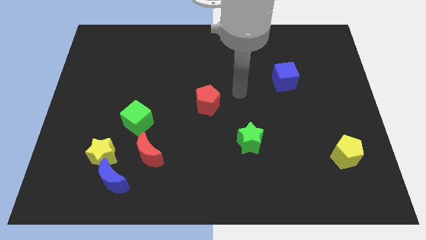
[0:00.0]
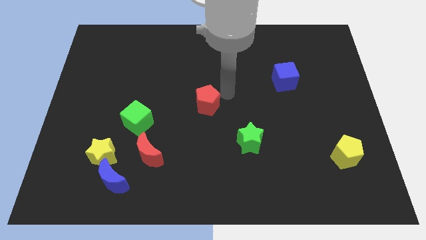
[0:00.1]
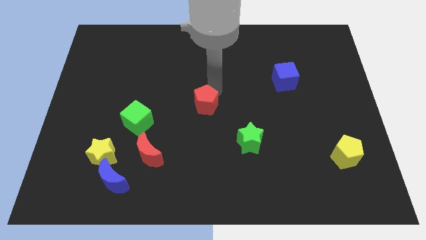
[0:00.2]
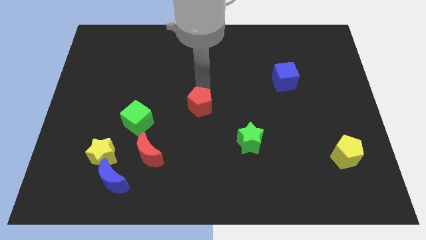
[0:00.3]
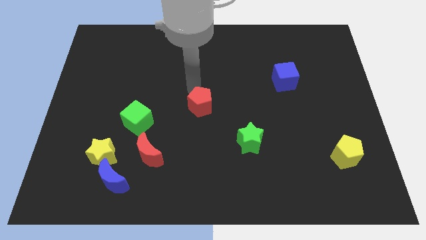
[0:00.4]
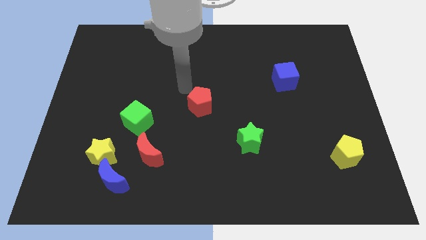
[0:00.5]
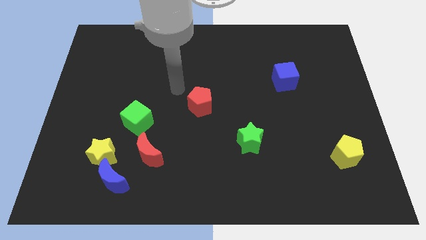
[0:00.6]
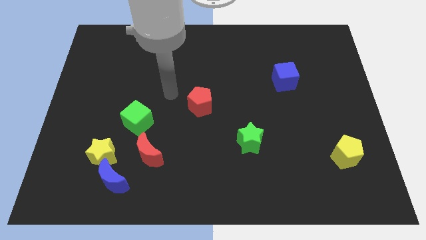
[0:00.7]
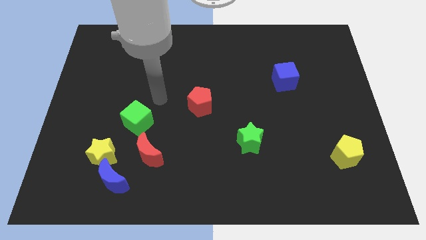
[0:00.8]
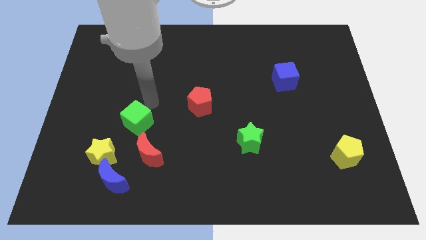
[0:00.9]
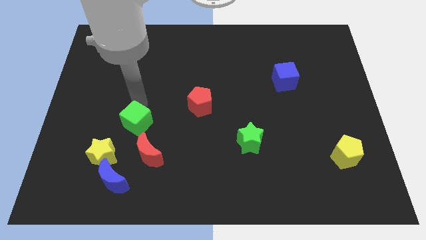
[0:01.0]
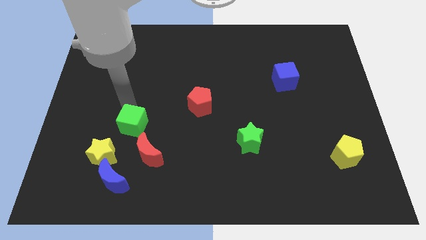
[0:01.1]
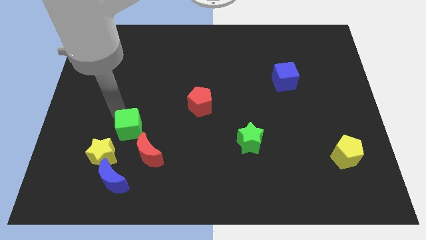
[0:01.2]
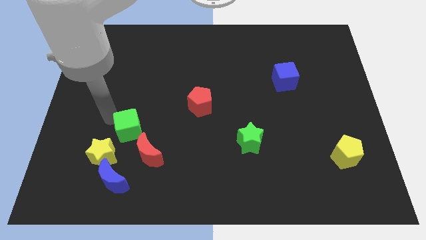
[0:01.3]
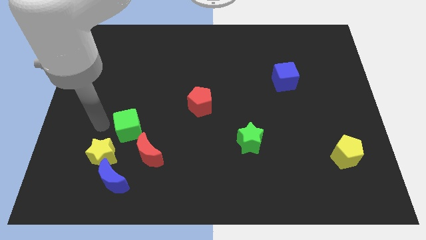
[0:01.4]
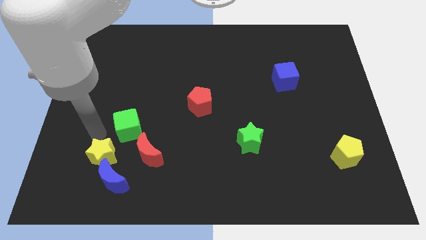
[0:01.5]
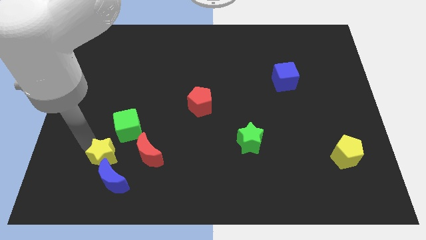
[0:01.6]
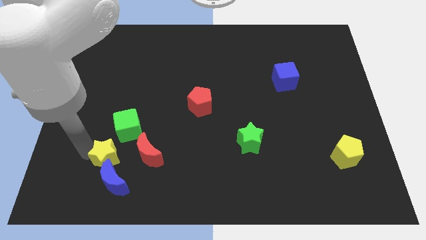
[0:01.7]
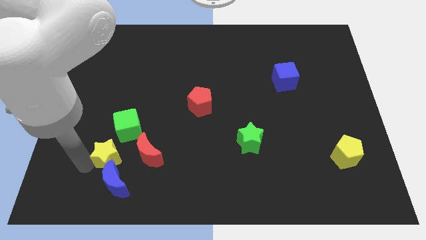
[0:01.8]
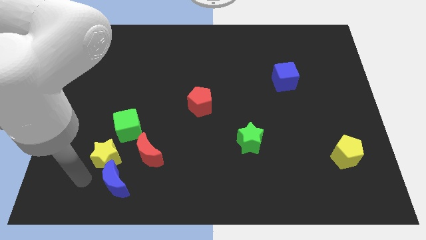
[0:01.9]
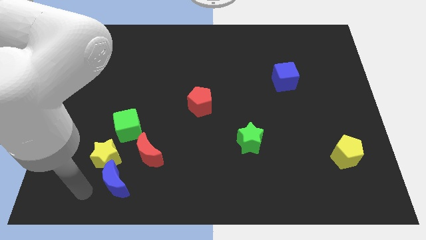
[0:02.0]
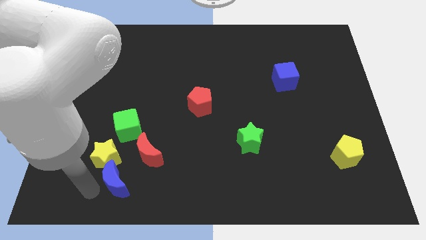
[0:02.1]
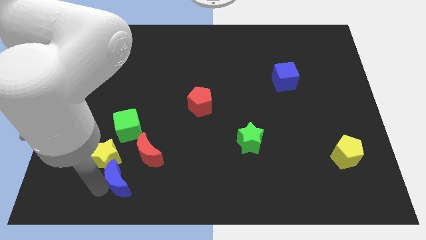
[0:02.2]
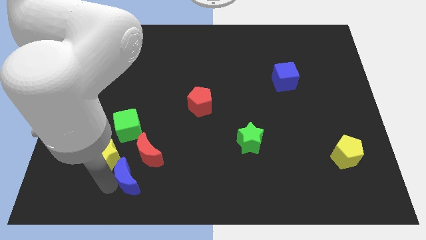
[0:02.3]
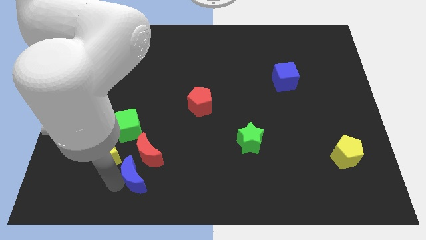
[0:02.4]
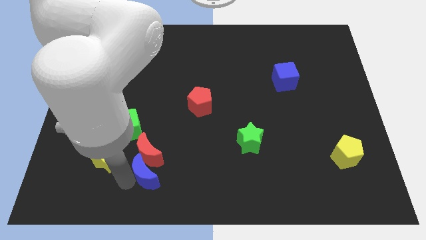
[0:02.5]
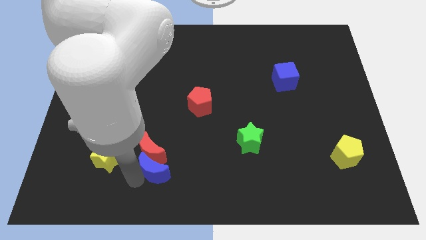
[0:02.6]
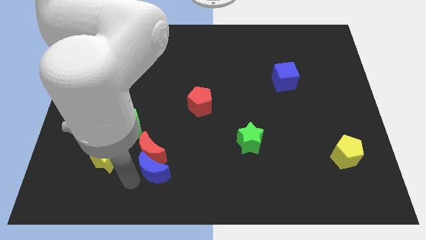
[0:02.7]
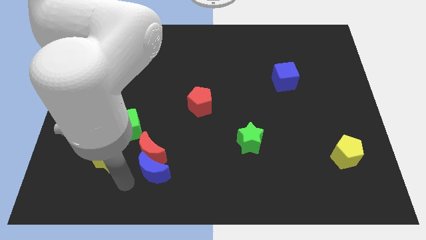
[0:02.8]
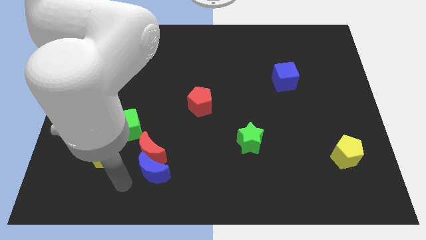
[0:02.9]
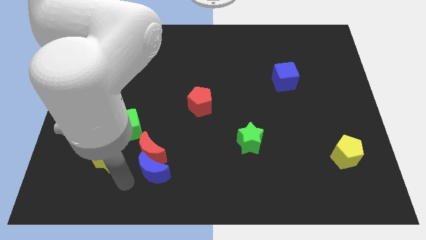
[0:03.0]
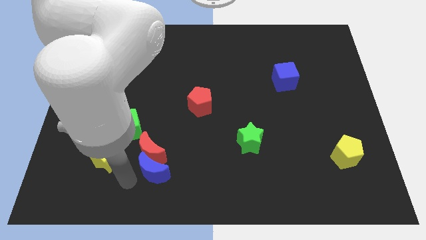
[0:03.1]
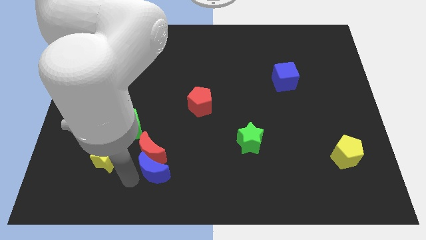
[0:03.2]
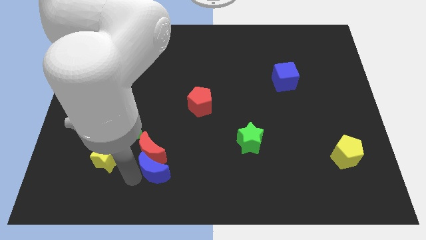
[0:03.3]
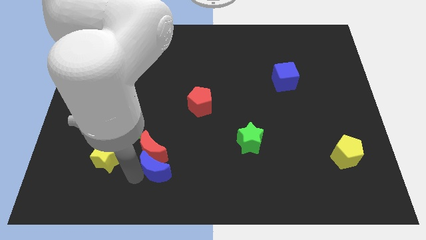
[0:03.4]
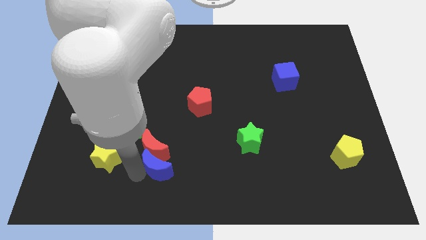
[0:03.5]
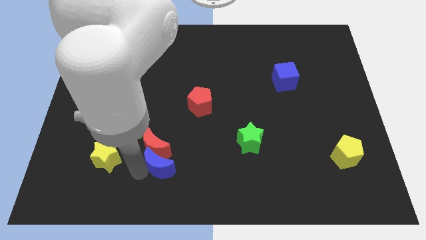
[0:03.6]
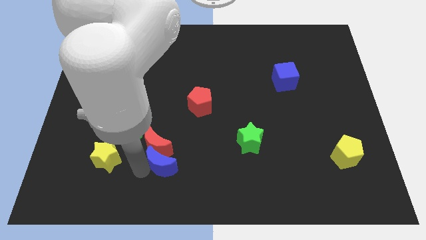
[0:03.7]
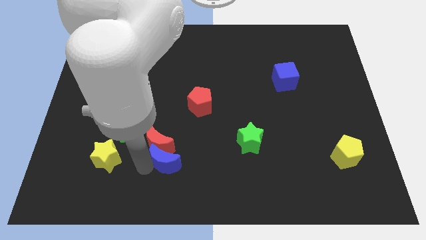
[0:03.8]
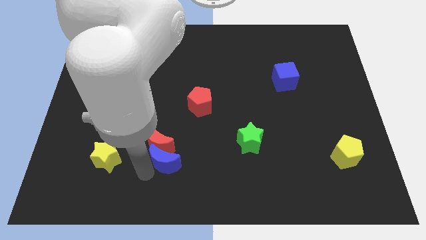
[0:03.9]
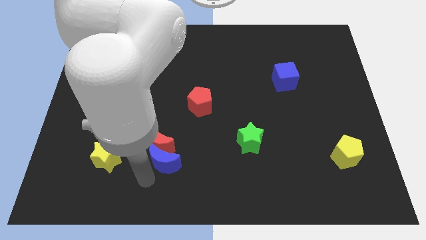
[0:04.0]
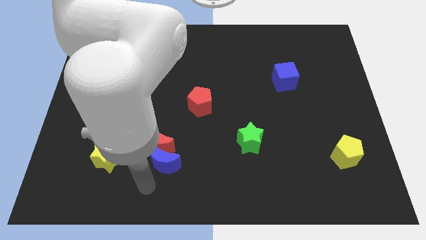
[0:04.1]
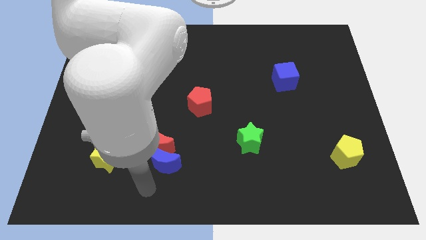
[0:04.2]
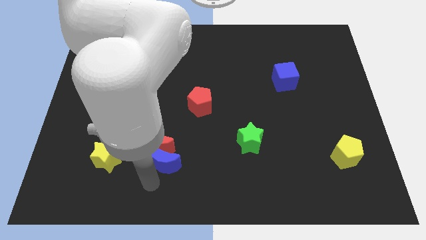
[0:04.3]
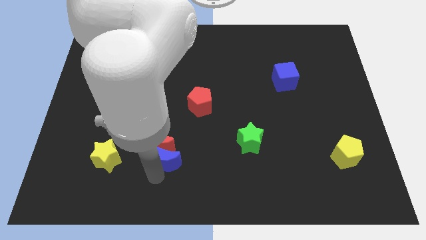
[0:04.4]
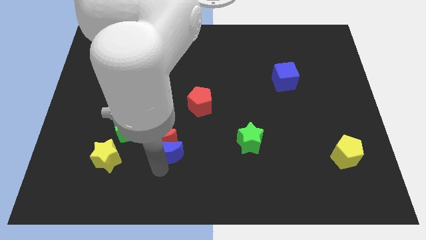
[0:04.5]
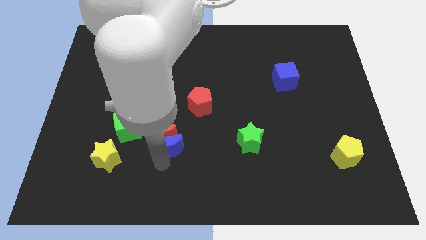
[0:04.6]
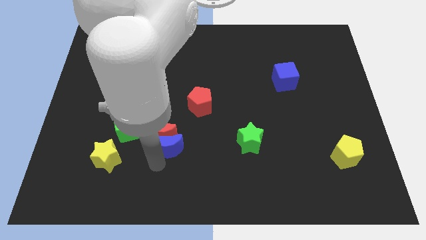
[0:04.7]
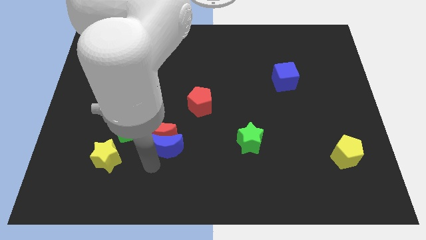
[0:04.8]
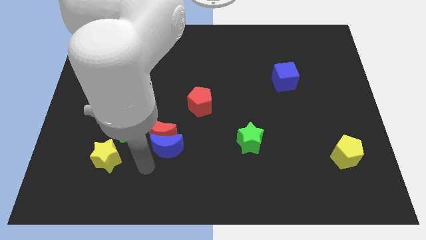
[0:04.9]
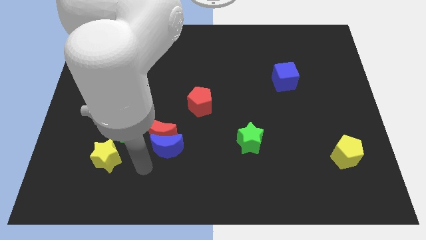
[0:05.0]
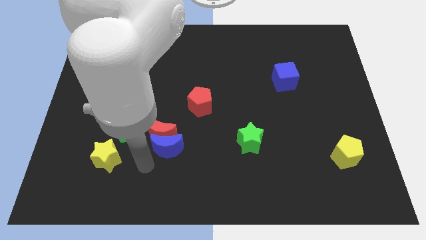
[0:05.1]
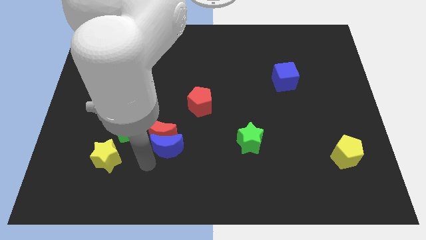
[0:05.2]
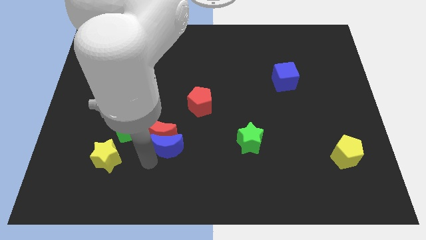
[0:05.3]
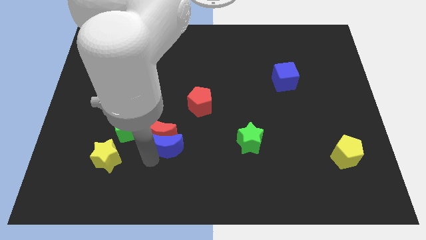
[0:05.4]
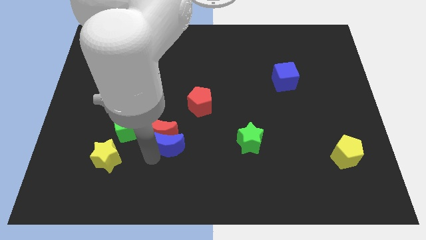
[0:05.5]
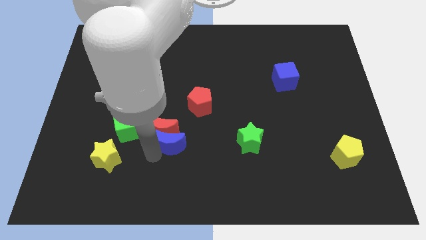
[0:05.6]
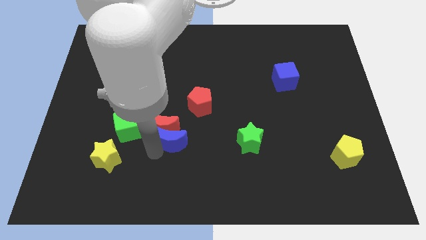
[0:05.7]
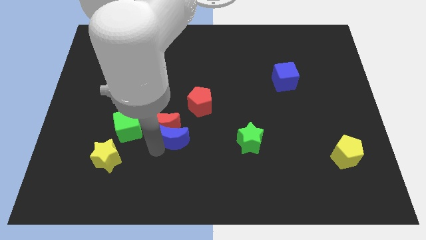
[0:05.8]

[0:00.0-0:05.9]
slide the blue moon to the bottom left of the red pentagon
